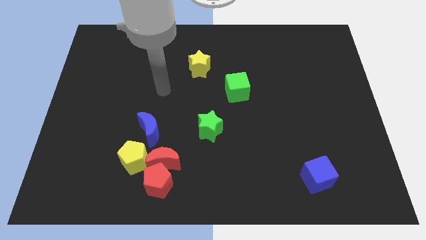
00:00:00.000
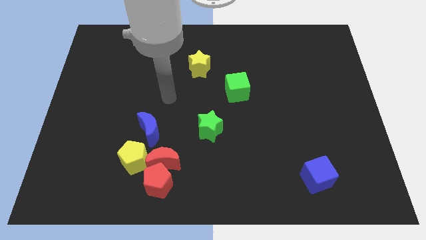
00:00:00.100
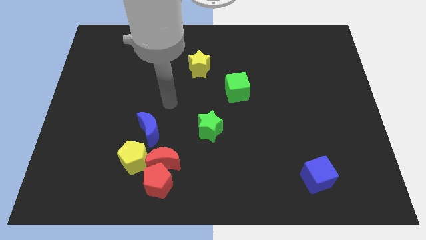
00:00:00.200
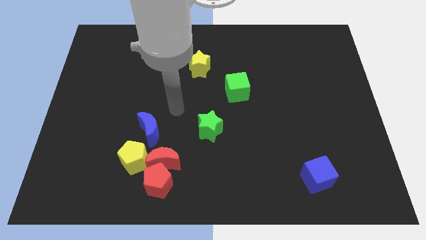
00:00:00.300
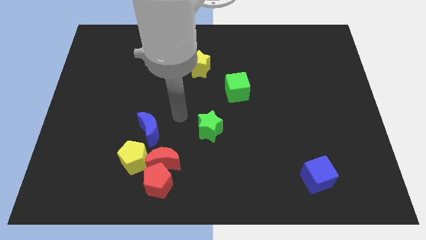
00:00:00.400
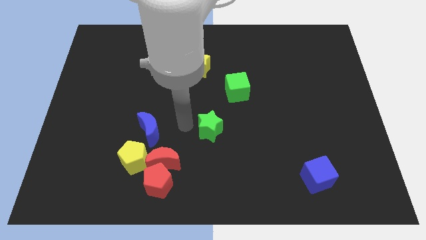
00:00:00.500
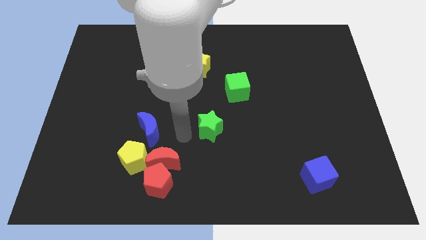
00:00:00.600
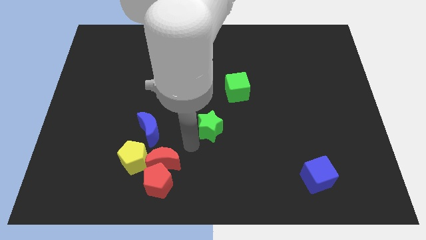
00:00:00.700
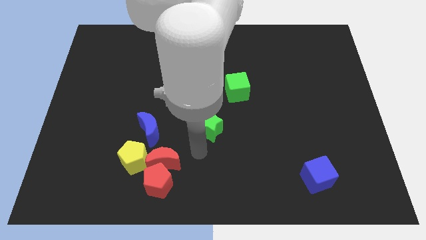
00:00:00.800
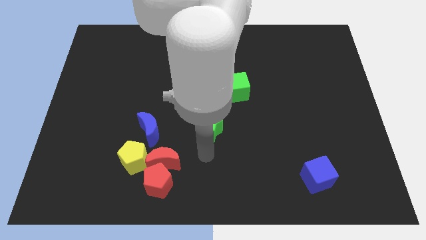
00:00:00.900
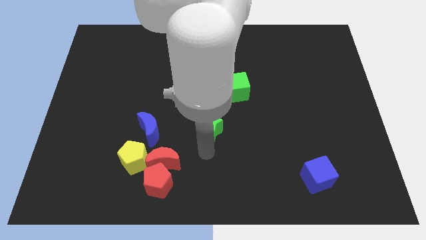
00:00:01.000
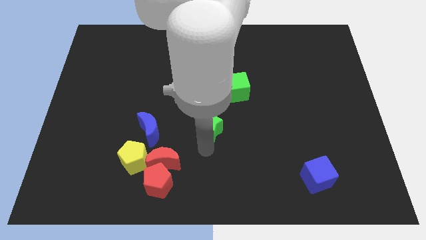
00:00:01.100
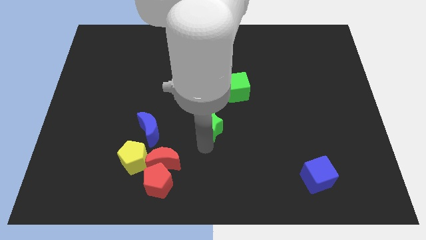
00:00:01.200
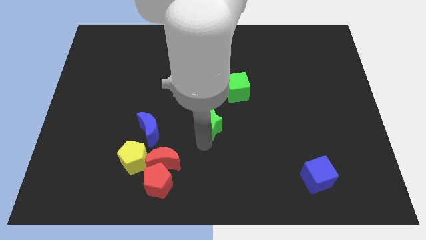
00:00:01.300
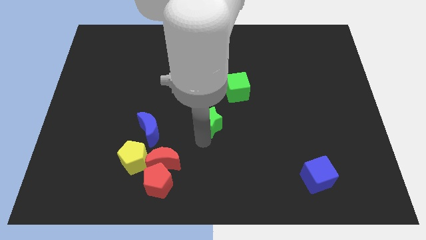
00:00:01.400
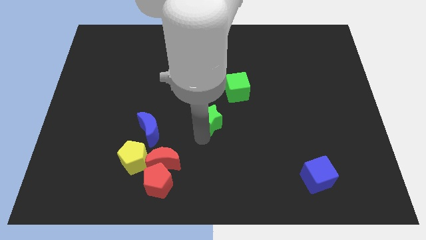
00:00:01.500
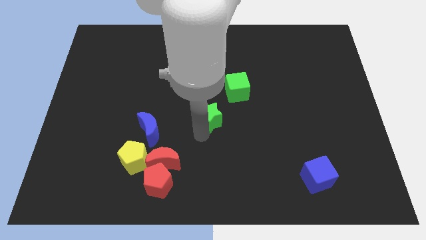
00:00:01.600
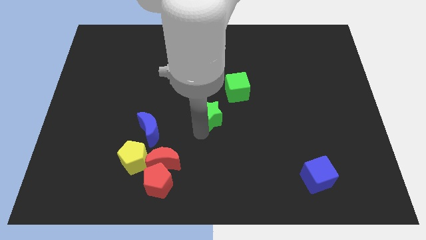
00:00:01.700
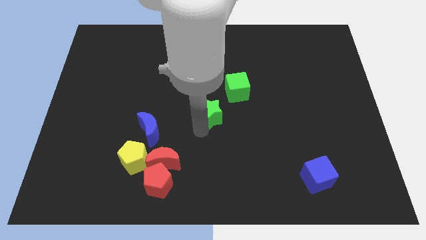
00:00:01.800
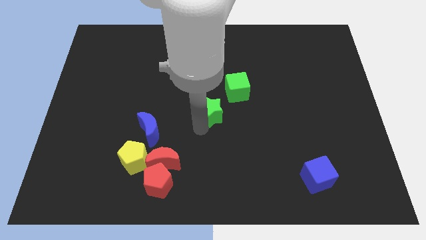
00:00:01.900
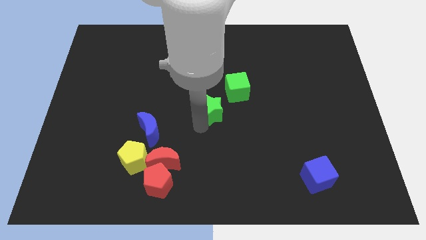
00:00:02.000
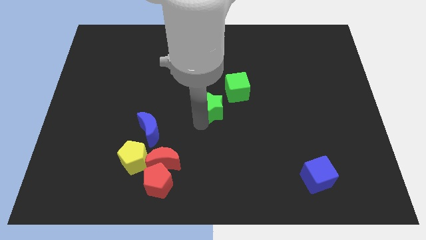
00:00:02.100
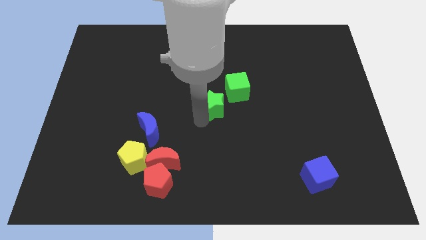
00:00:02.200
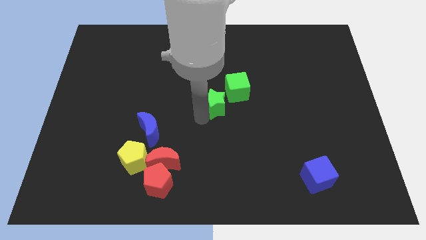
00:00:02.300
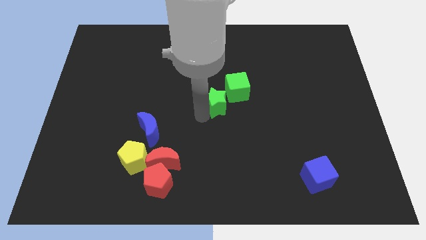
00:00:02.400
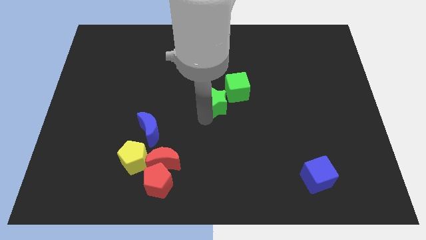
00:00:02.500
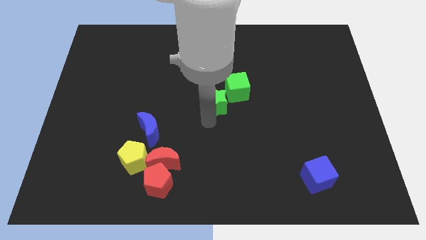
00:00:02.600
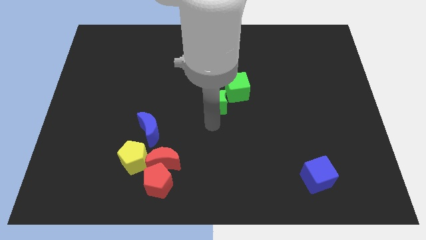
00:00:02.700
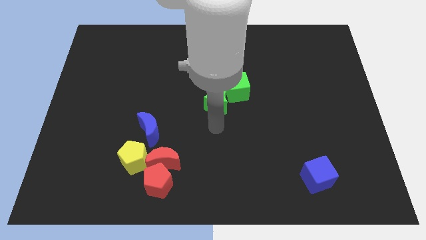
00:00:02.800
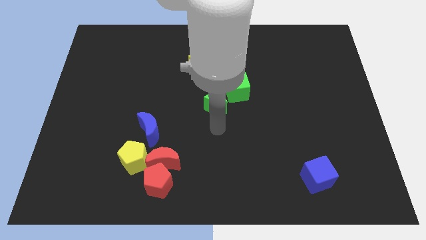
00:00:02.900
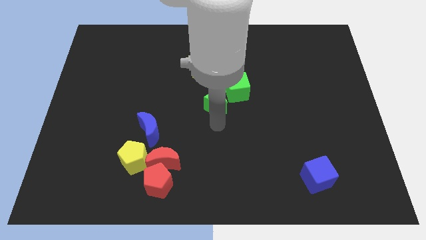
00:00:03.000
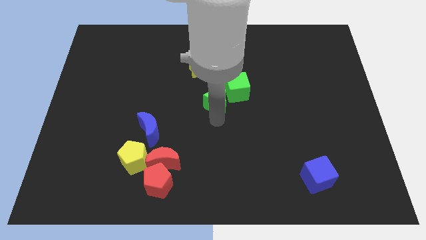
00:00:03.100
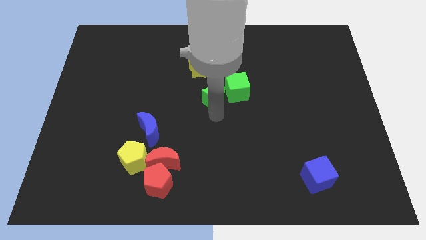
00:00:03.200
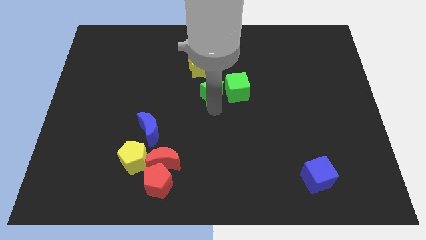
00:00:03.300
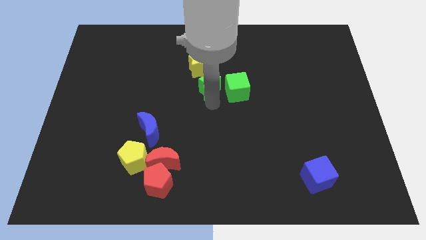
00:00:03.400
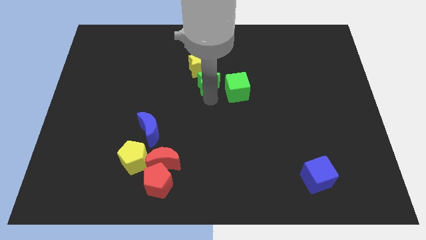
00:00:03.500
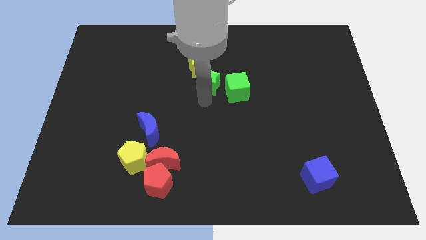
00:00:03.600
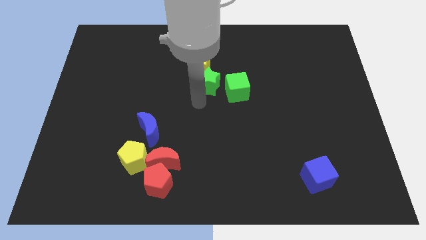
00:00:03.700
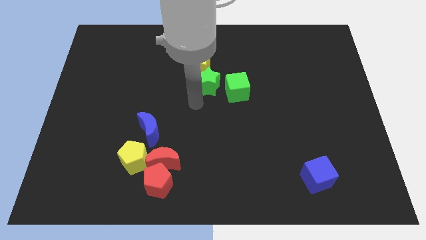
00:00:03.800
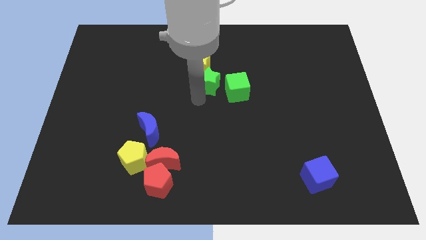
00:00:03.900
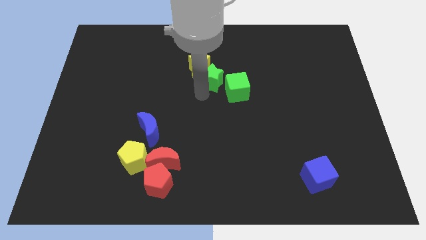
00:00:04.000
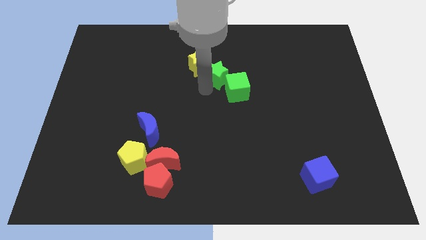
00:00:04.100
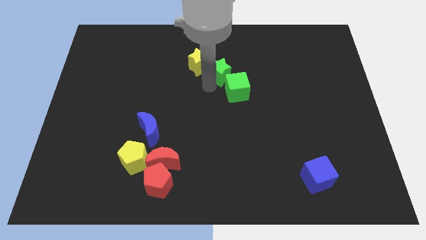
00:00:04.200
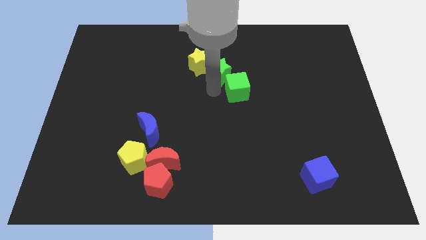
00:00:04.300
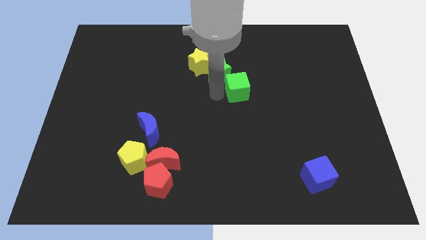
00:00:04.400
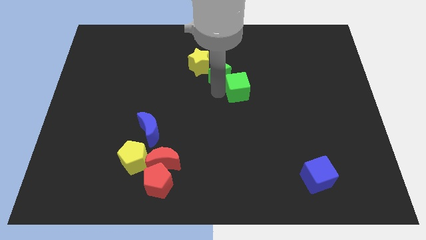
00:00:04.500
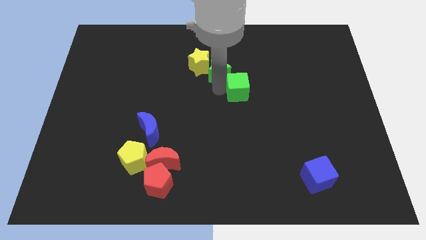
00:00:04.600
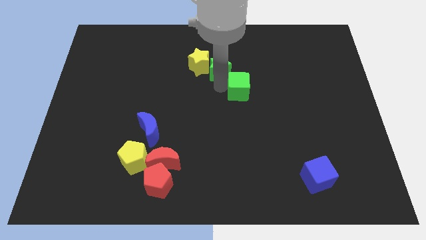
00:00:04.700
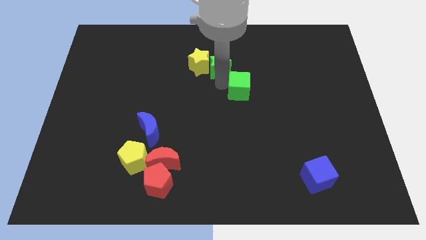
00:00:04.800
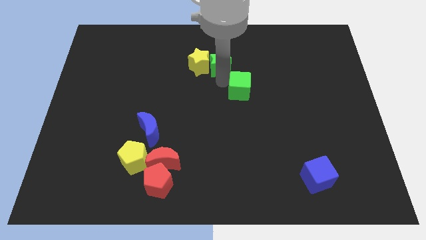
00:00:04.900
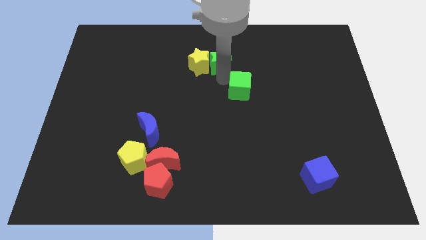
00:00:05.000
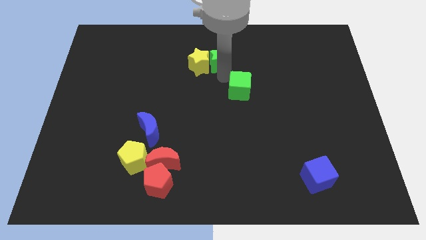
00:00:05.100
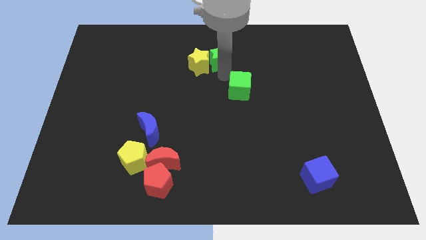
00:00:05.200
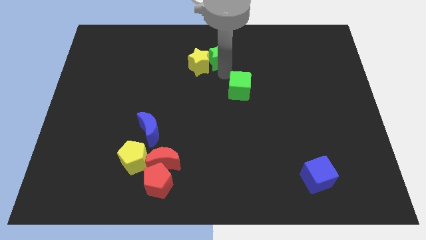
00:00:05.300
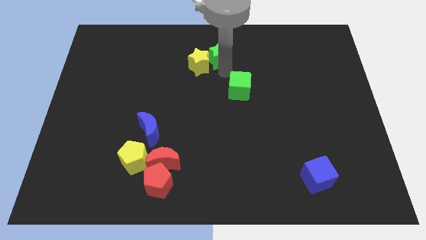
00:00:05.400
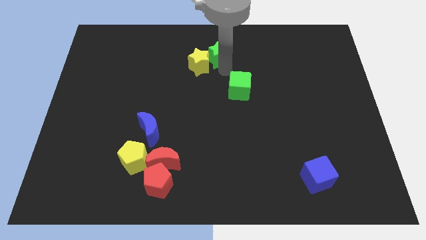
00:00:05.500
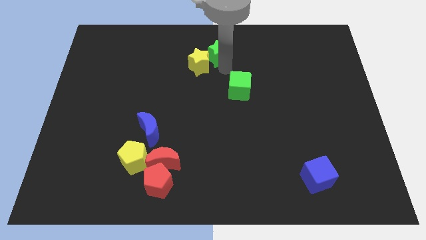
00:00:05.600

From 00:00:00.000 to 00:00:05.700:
push the green star to the top side

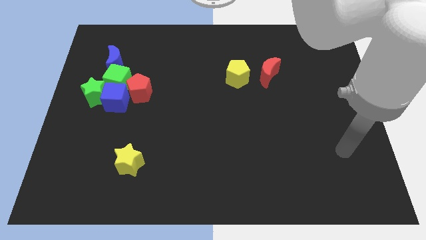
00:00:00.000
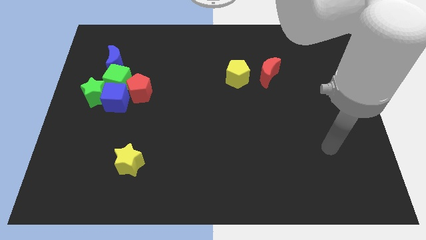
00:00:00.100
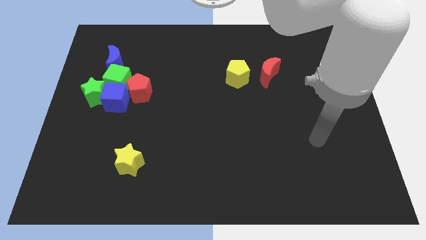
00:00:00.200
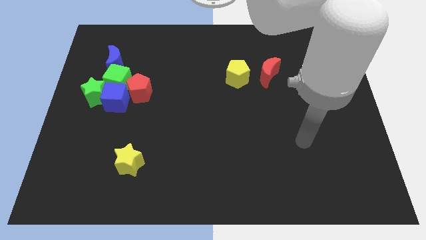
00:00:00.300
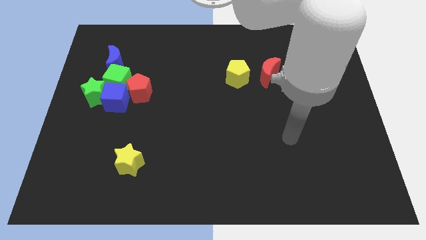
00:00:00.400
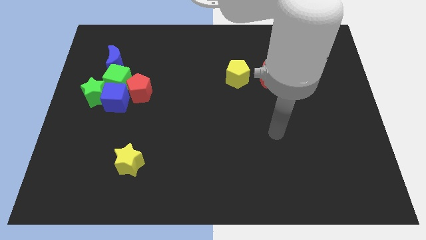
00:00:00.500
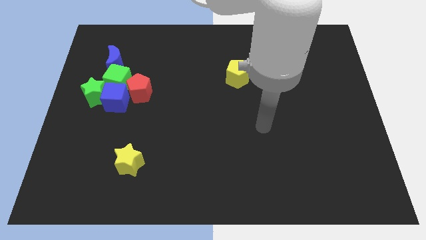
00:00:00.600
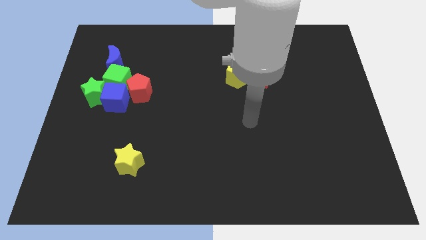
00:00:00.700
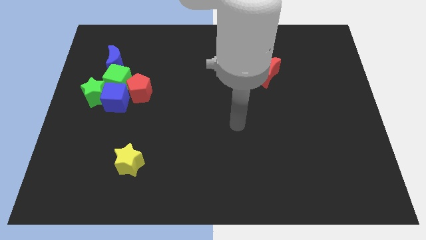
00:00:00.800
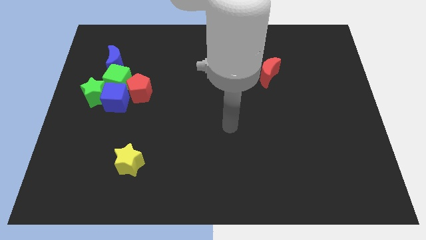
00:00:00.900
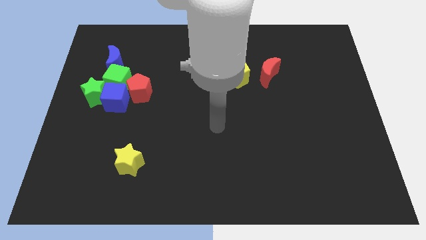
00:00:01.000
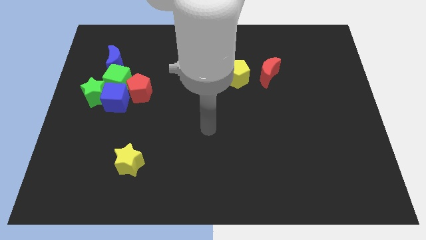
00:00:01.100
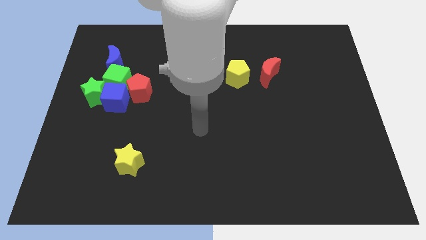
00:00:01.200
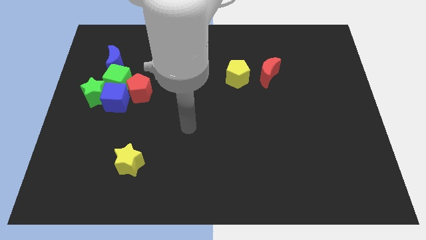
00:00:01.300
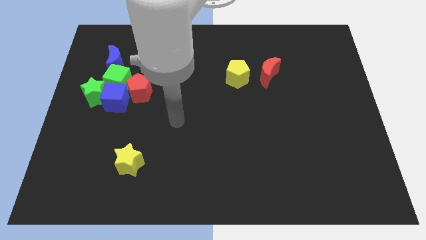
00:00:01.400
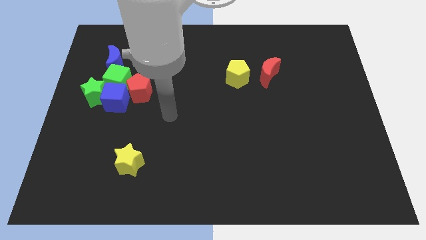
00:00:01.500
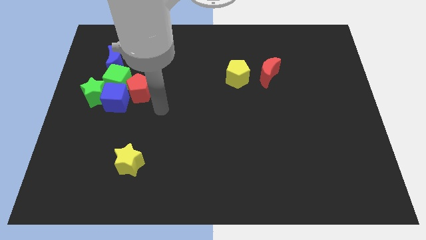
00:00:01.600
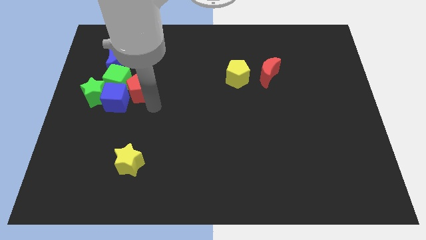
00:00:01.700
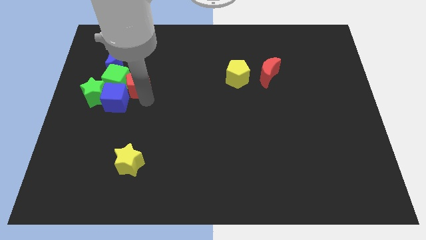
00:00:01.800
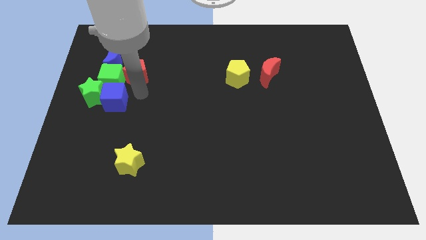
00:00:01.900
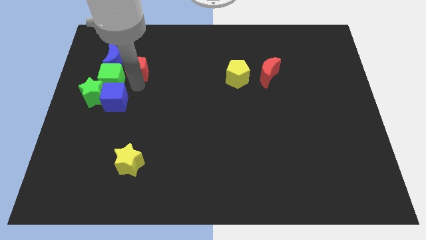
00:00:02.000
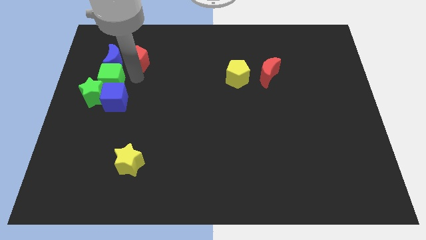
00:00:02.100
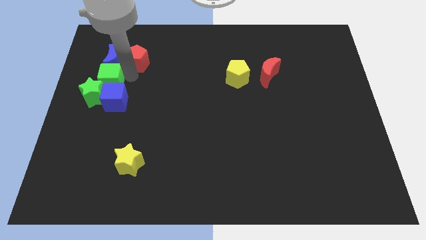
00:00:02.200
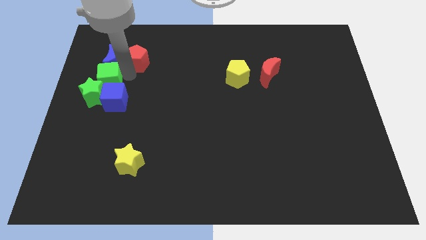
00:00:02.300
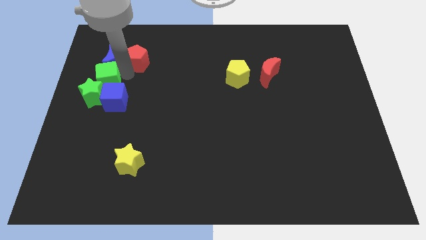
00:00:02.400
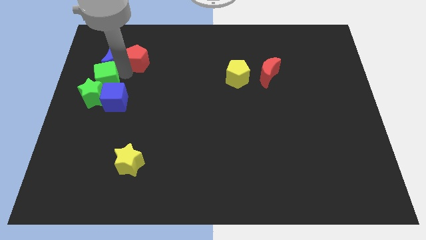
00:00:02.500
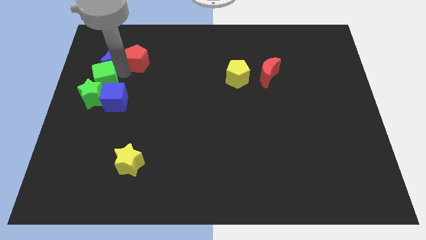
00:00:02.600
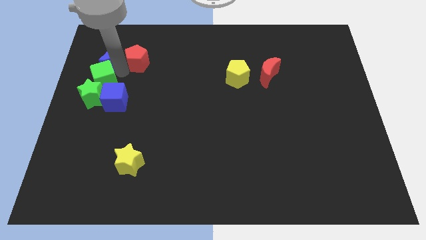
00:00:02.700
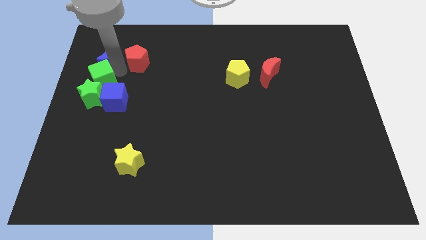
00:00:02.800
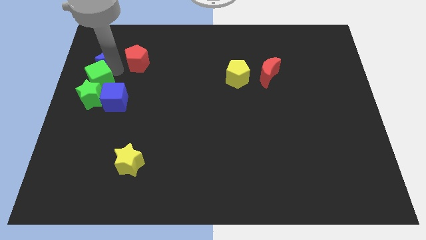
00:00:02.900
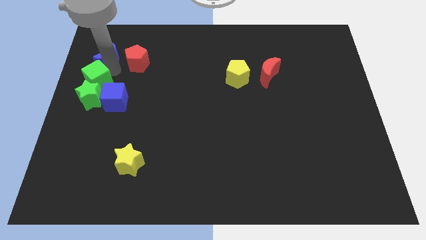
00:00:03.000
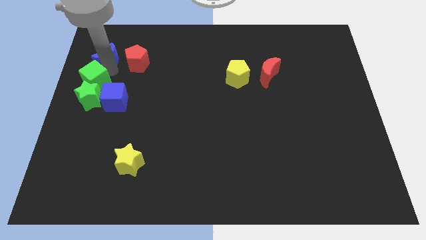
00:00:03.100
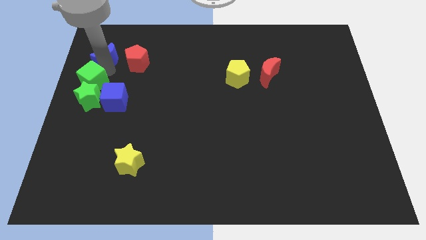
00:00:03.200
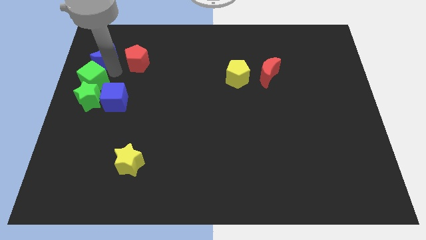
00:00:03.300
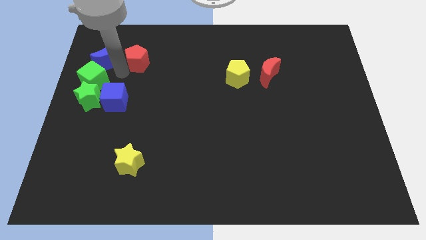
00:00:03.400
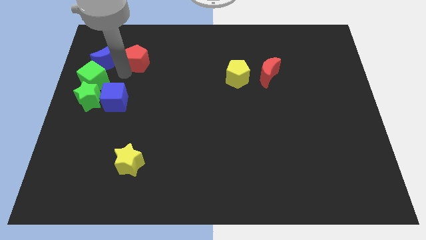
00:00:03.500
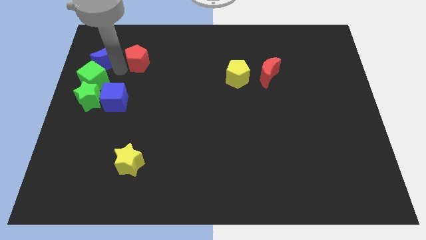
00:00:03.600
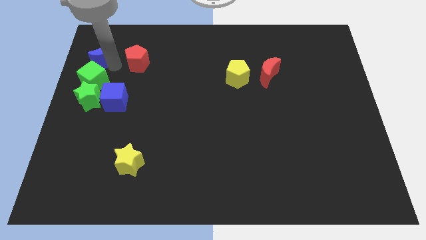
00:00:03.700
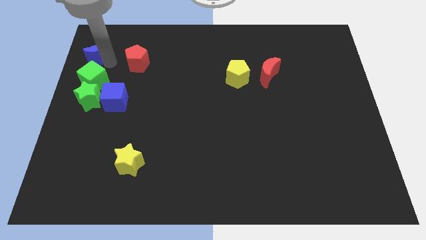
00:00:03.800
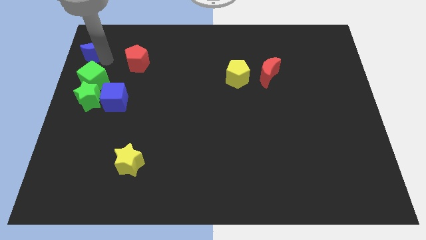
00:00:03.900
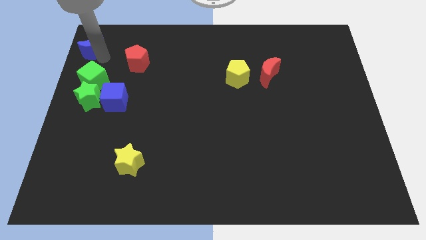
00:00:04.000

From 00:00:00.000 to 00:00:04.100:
push the blue moon to the top left
